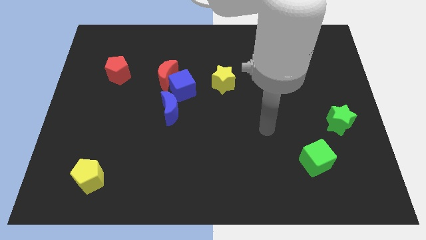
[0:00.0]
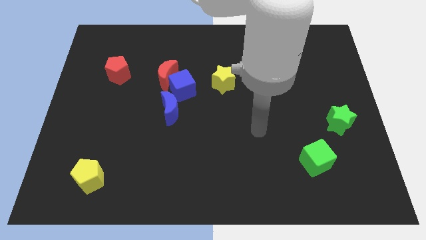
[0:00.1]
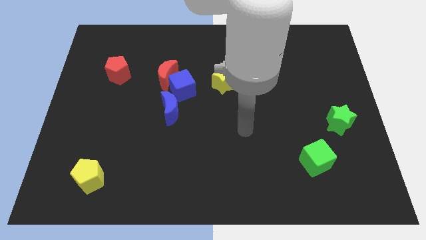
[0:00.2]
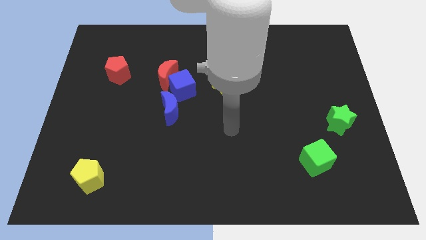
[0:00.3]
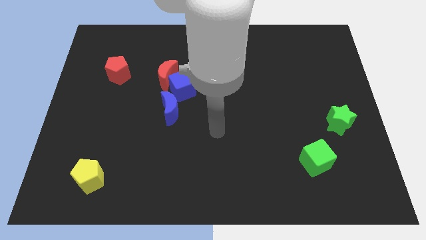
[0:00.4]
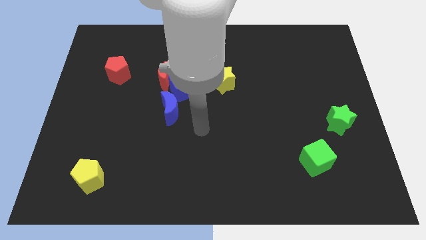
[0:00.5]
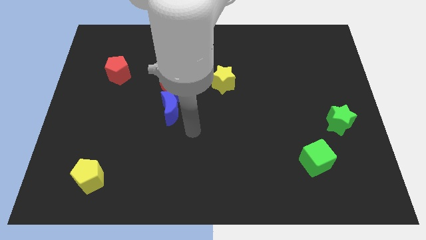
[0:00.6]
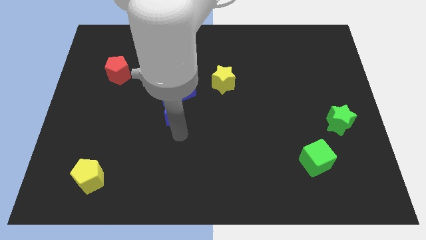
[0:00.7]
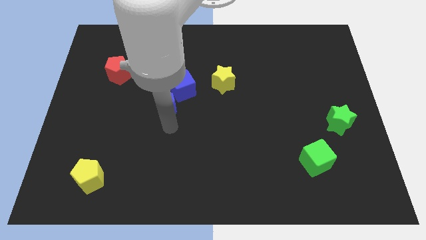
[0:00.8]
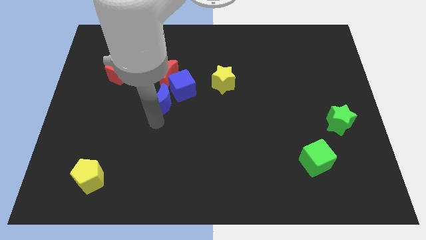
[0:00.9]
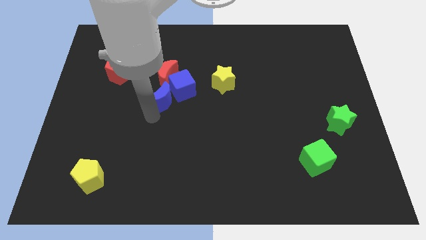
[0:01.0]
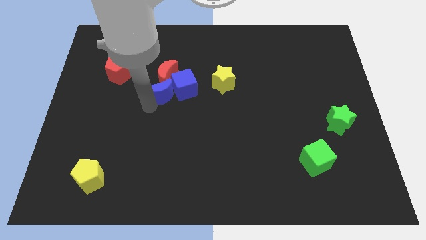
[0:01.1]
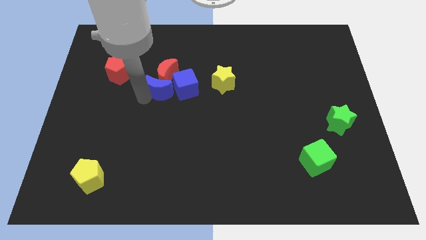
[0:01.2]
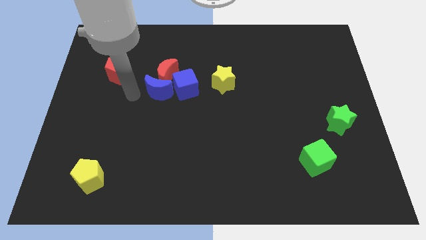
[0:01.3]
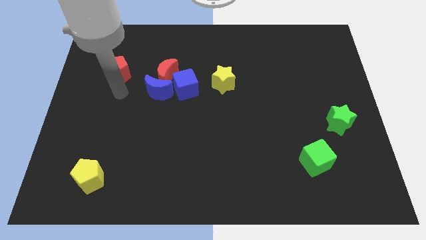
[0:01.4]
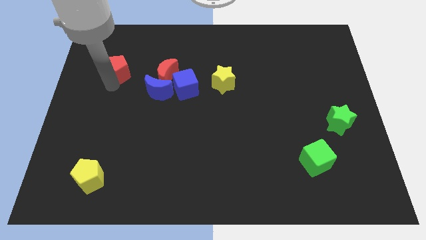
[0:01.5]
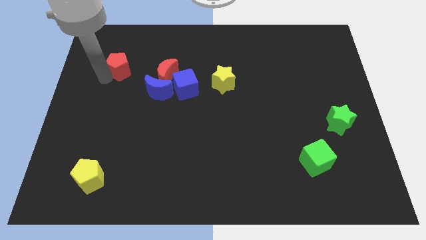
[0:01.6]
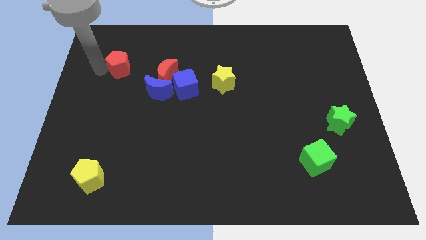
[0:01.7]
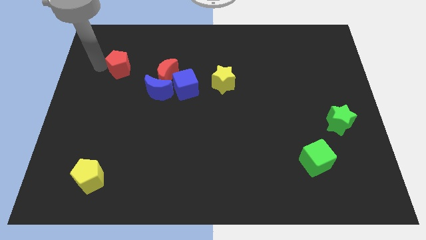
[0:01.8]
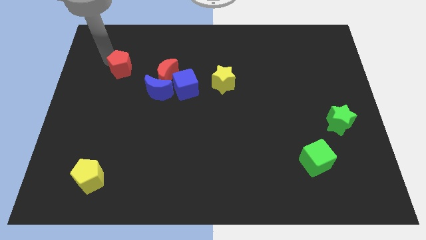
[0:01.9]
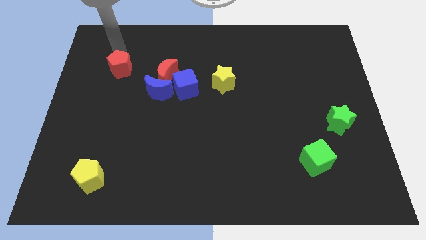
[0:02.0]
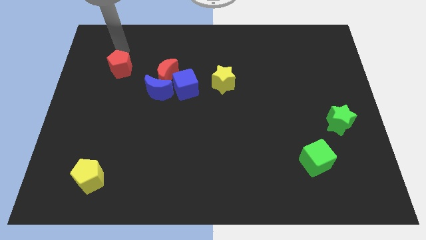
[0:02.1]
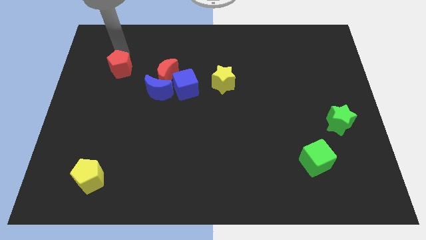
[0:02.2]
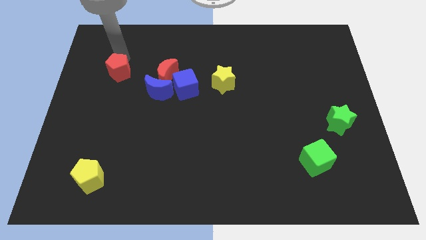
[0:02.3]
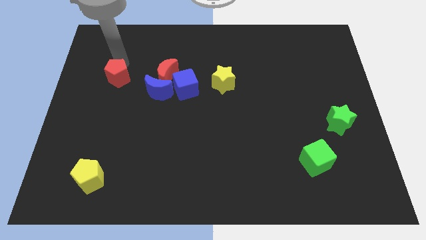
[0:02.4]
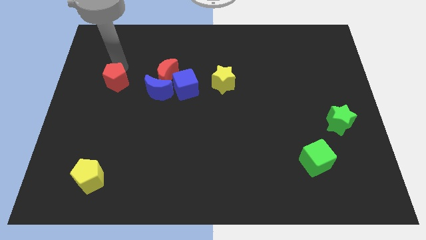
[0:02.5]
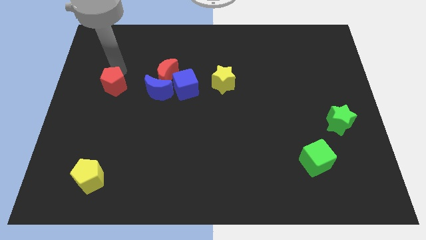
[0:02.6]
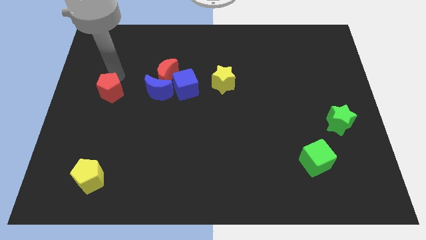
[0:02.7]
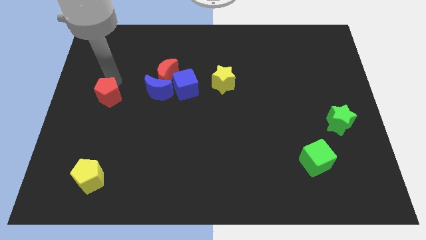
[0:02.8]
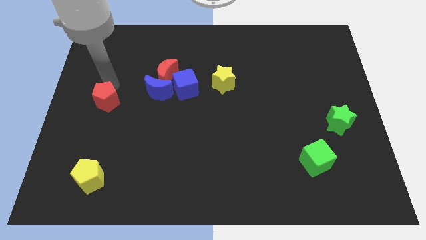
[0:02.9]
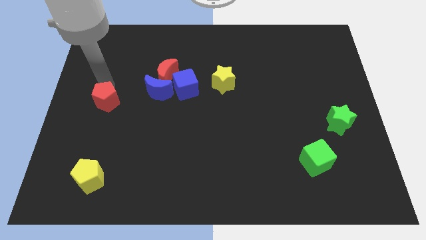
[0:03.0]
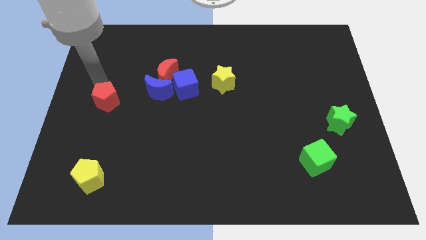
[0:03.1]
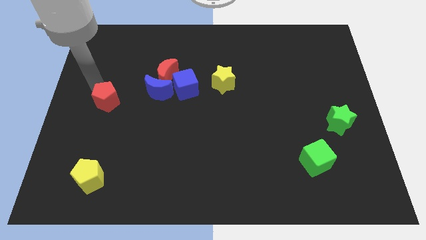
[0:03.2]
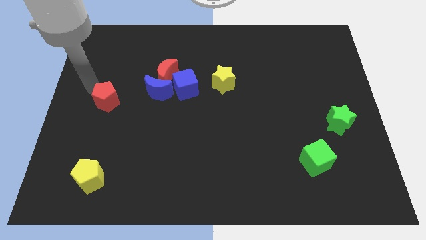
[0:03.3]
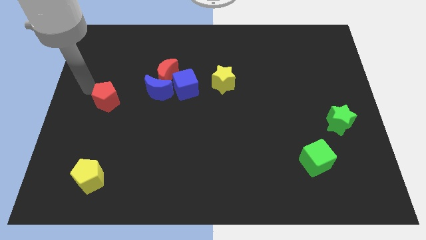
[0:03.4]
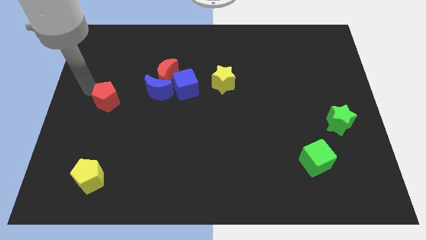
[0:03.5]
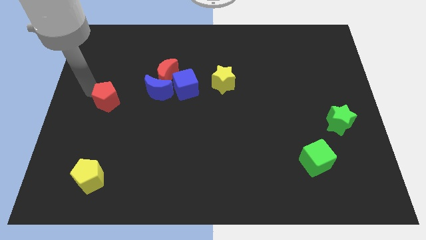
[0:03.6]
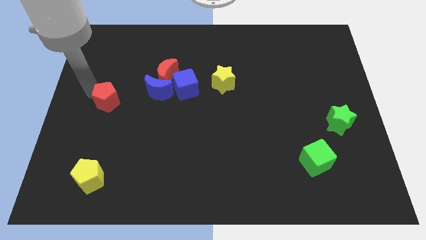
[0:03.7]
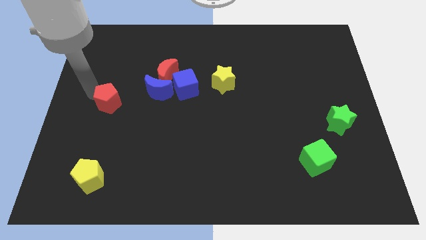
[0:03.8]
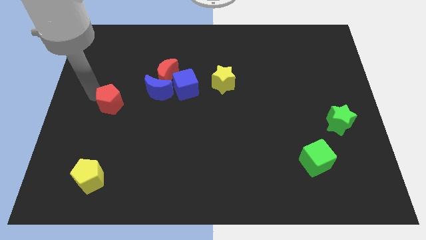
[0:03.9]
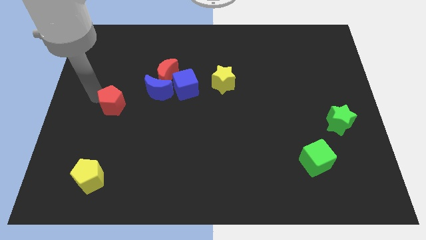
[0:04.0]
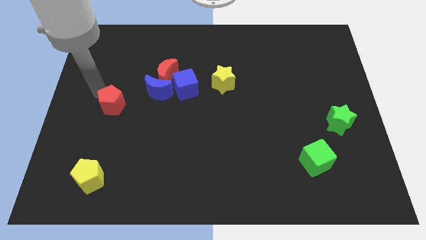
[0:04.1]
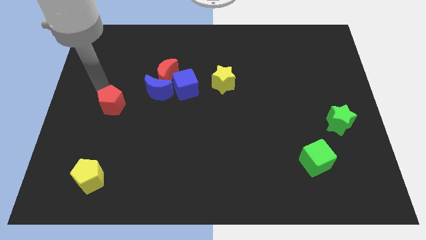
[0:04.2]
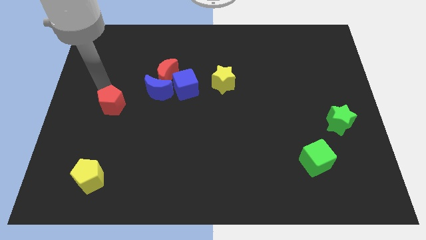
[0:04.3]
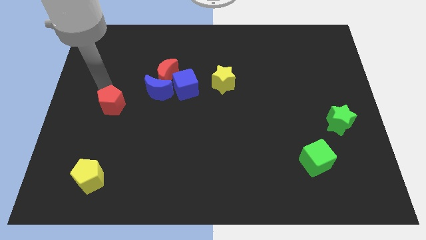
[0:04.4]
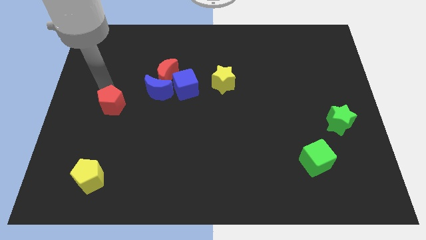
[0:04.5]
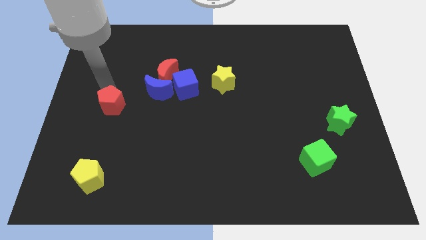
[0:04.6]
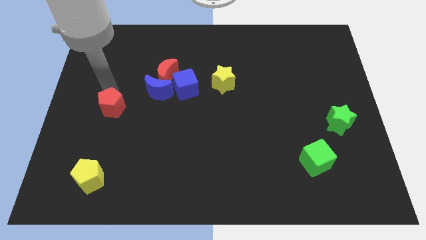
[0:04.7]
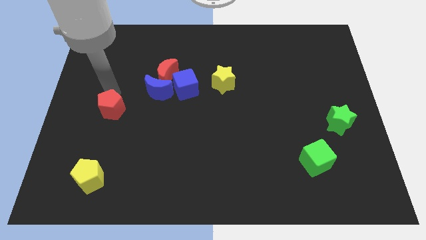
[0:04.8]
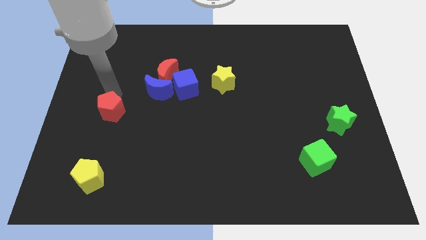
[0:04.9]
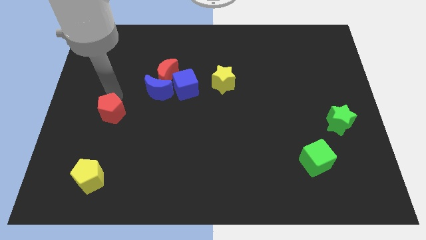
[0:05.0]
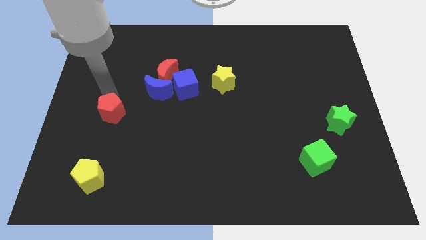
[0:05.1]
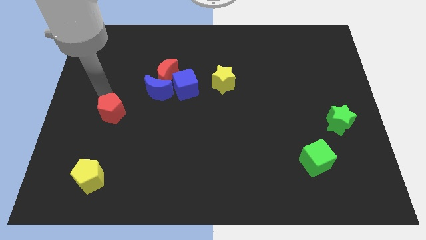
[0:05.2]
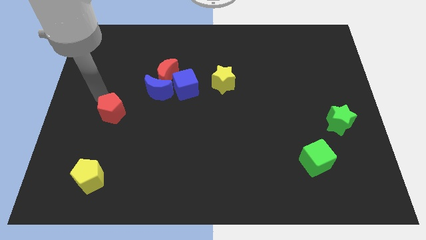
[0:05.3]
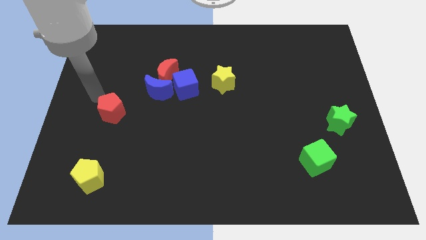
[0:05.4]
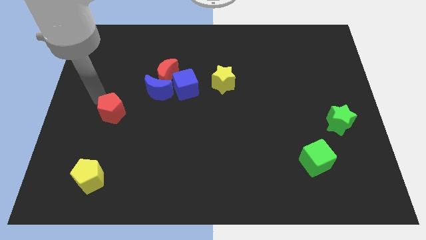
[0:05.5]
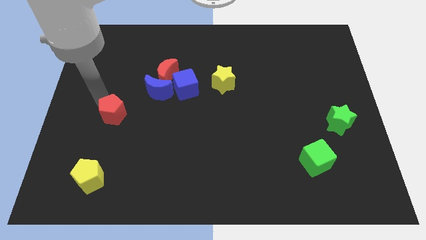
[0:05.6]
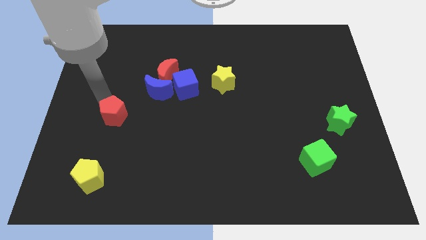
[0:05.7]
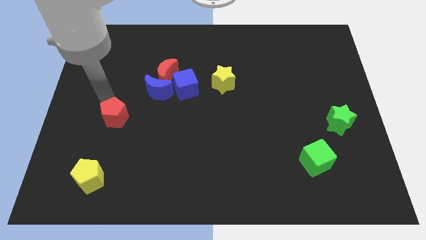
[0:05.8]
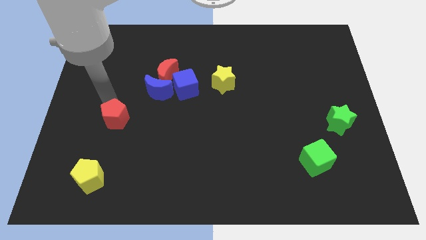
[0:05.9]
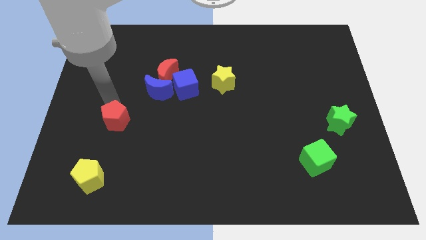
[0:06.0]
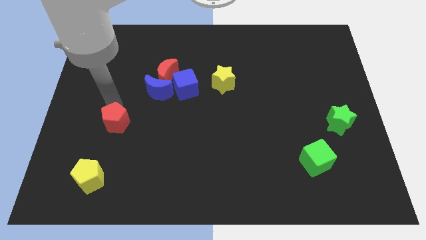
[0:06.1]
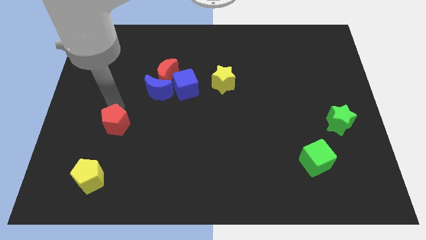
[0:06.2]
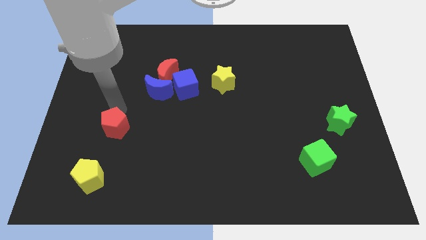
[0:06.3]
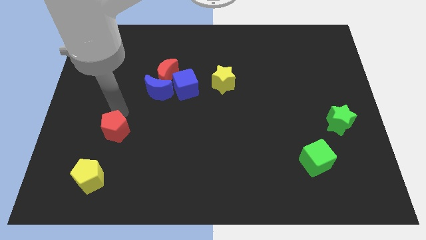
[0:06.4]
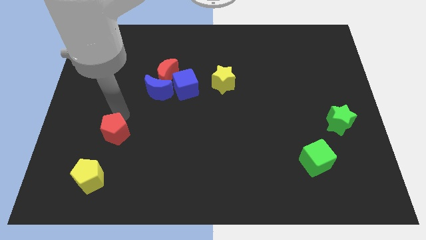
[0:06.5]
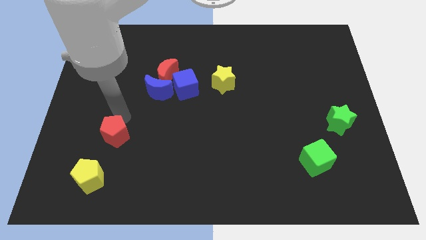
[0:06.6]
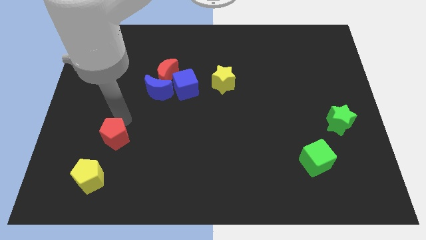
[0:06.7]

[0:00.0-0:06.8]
put the red pentagon to the top right side of the yellow pentagon
